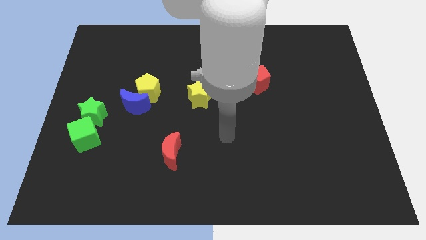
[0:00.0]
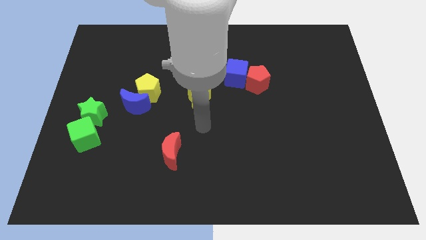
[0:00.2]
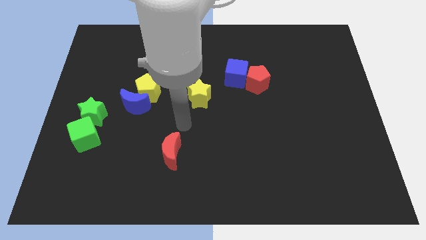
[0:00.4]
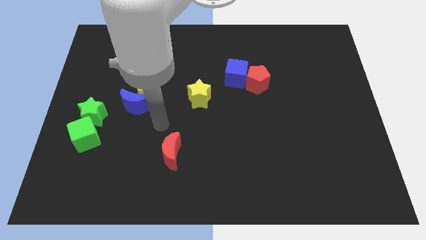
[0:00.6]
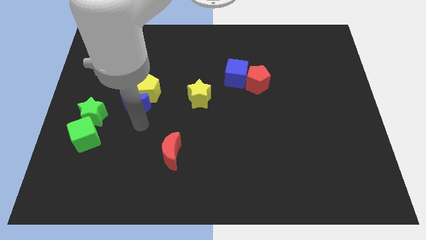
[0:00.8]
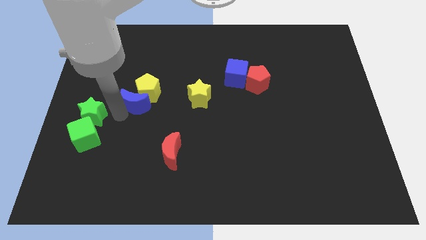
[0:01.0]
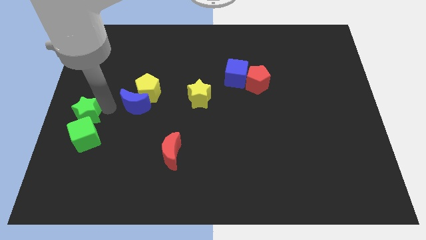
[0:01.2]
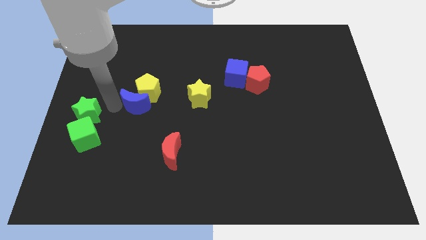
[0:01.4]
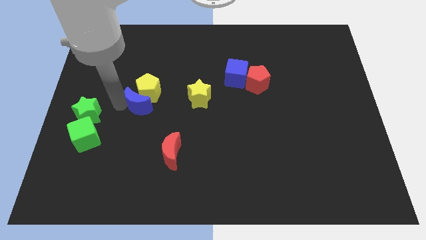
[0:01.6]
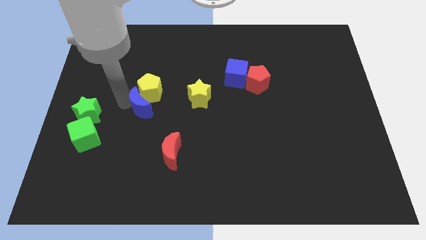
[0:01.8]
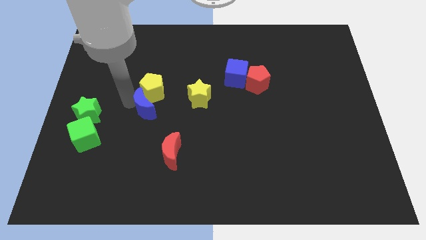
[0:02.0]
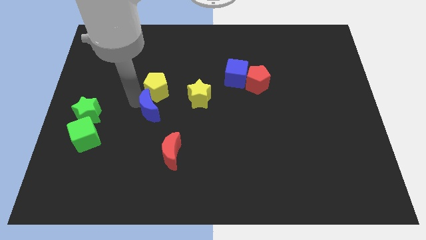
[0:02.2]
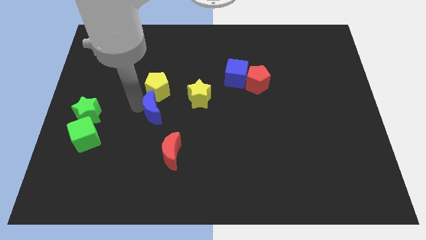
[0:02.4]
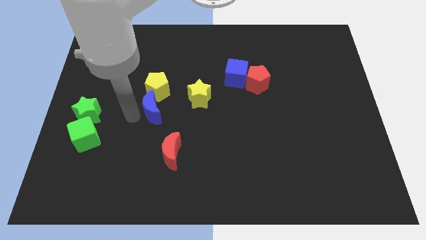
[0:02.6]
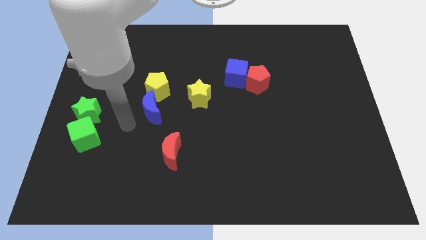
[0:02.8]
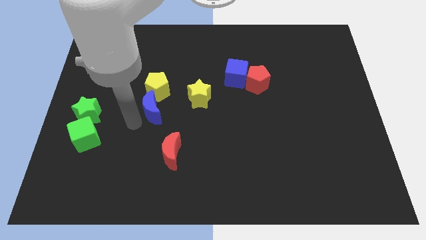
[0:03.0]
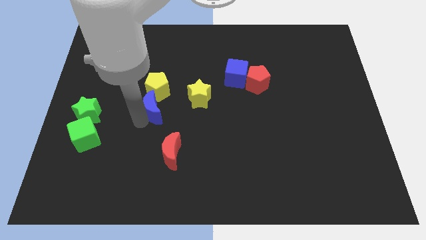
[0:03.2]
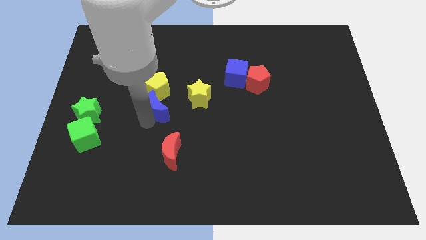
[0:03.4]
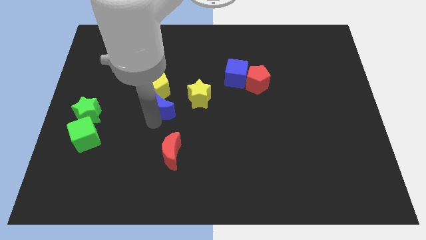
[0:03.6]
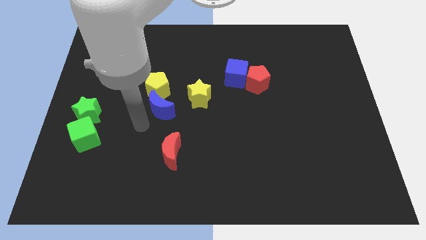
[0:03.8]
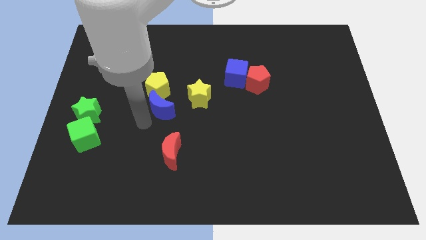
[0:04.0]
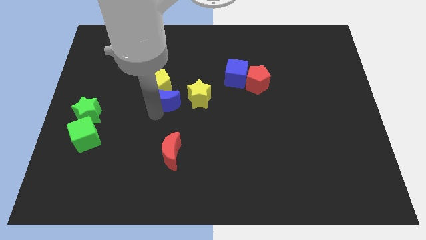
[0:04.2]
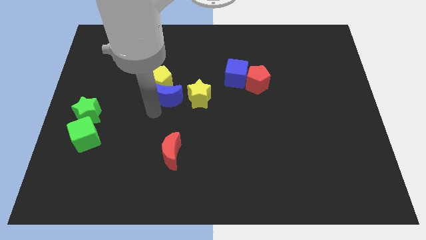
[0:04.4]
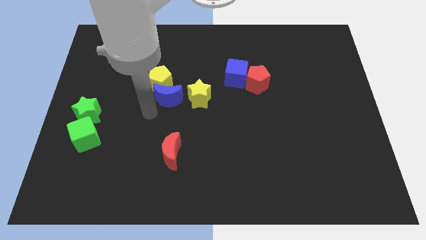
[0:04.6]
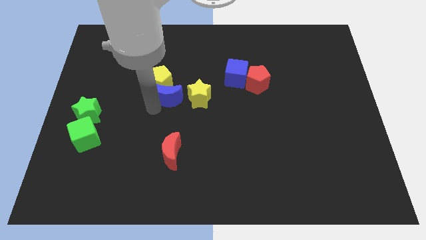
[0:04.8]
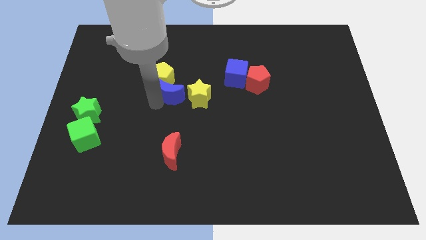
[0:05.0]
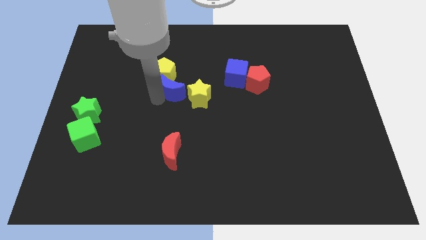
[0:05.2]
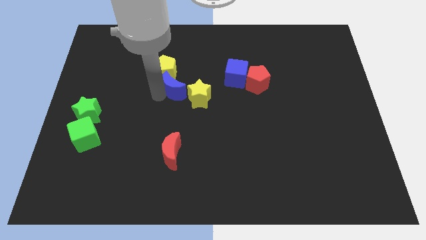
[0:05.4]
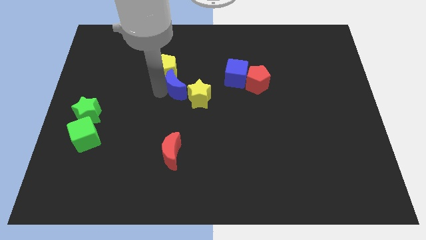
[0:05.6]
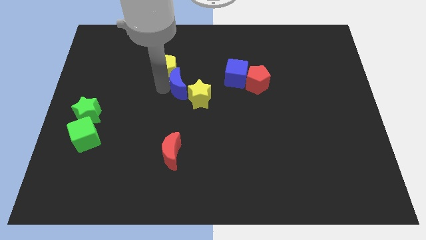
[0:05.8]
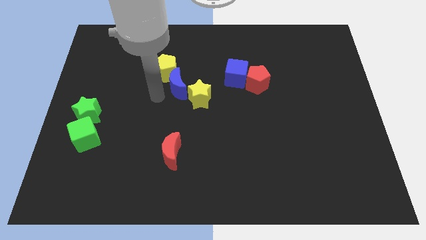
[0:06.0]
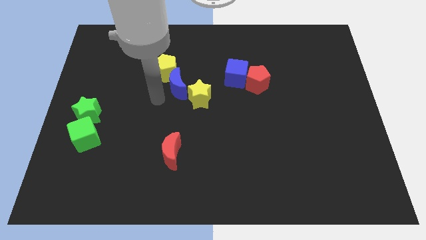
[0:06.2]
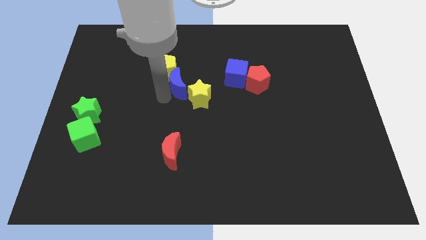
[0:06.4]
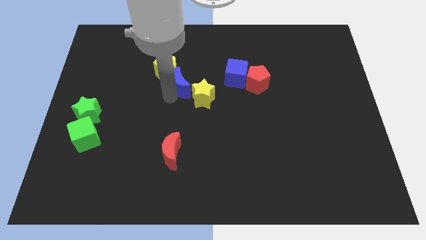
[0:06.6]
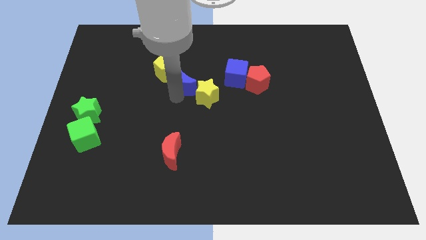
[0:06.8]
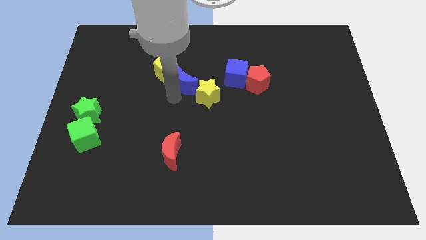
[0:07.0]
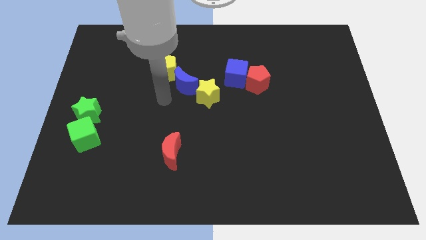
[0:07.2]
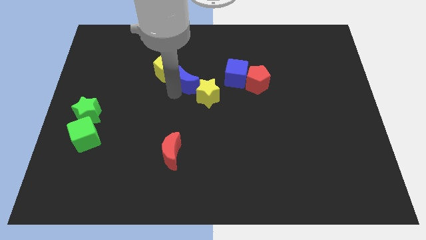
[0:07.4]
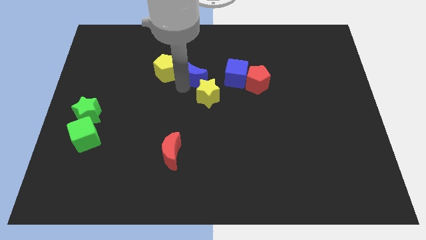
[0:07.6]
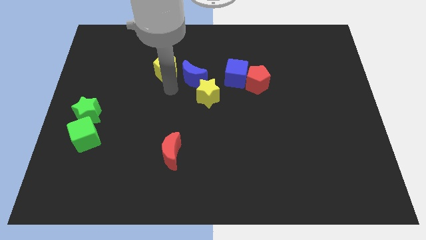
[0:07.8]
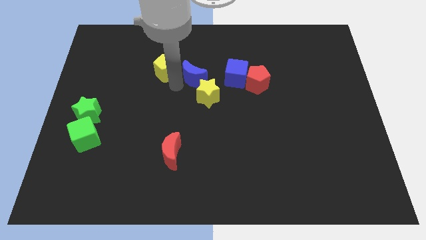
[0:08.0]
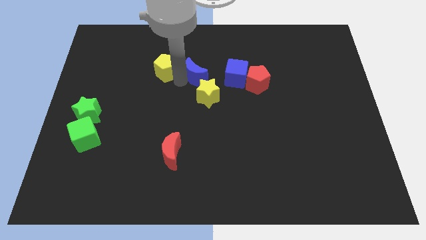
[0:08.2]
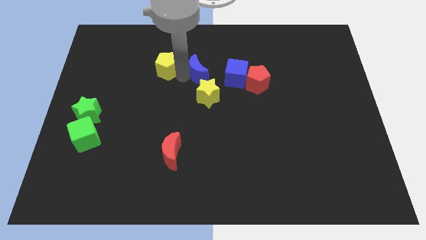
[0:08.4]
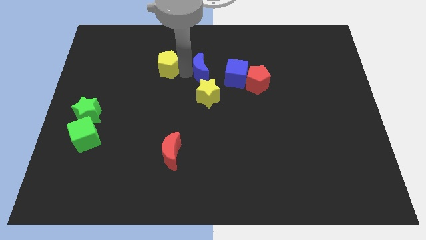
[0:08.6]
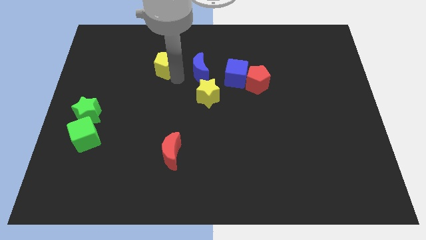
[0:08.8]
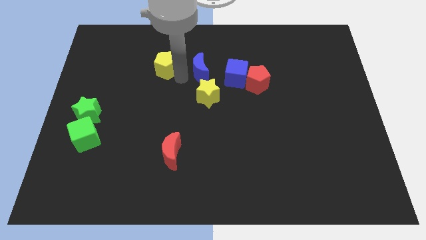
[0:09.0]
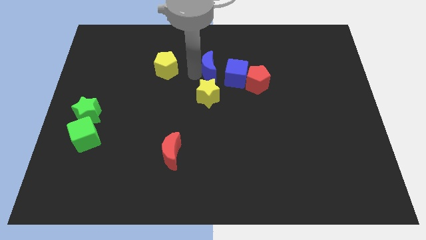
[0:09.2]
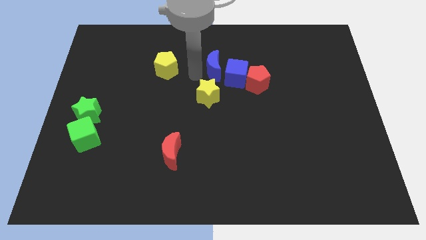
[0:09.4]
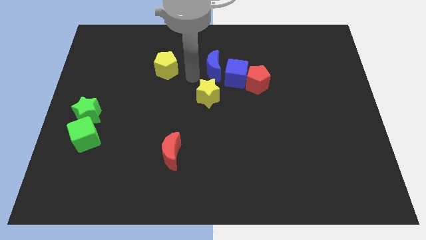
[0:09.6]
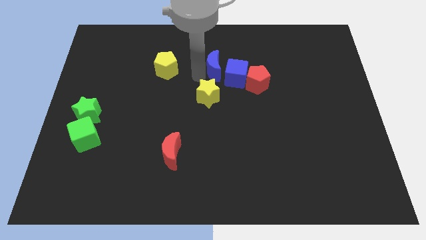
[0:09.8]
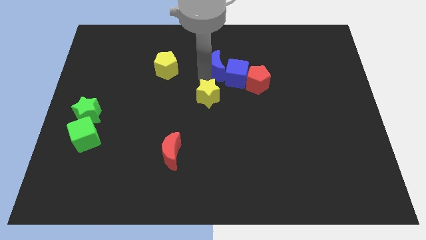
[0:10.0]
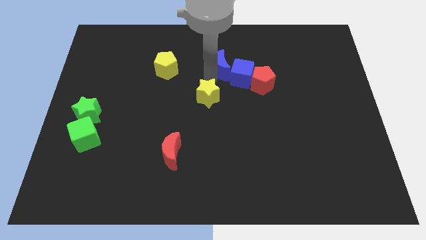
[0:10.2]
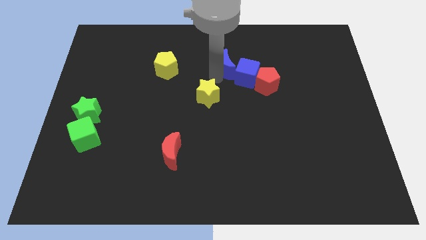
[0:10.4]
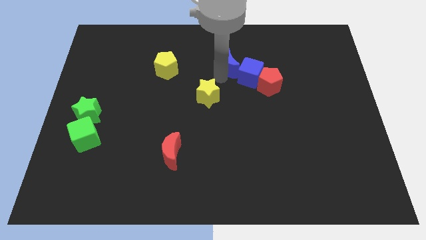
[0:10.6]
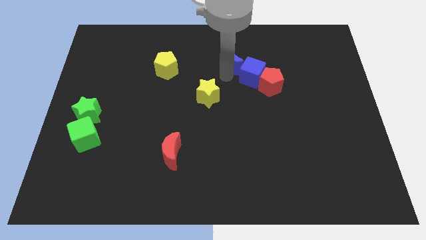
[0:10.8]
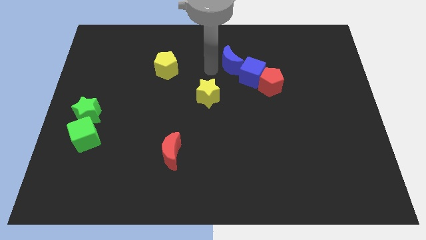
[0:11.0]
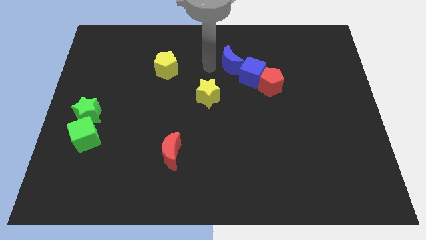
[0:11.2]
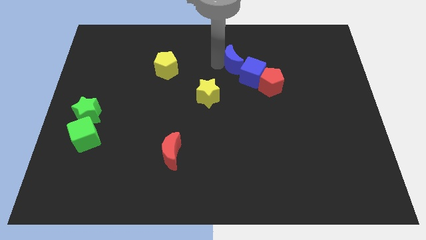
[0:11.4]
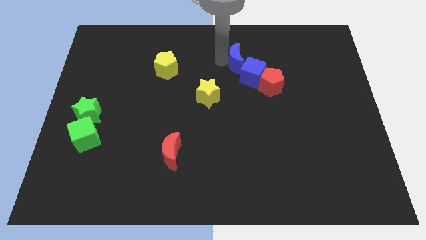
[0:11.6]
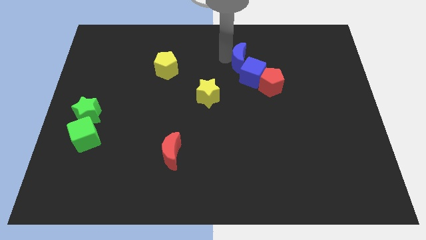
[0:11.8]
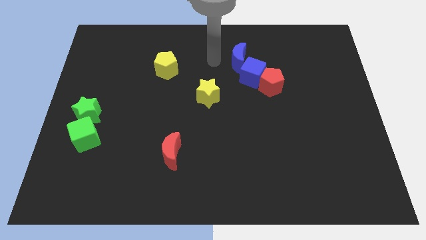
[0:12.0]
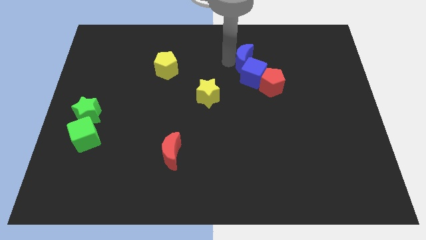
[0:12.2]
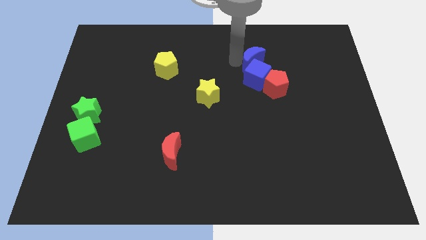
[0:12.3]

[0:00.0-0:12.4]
slide the blue moon to the top right side of the blue cube
